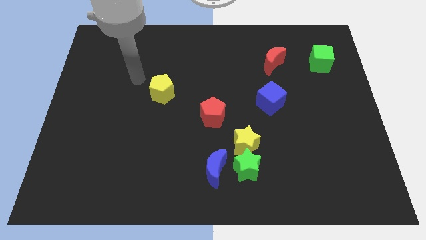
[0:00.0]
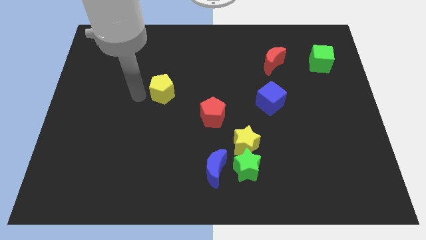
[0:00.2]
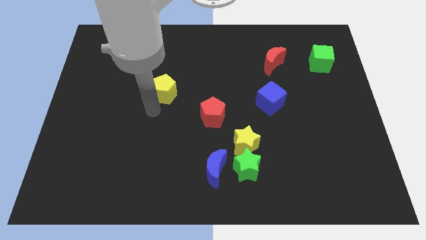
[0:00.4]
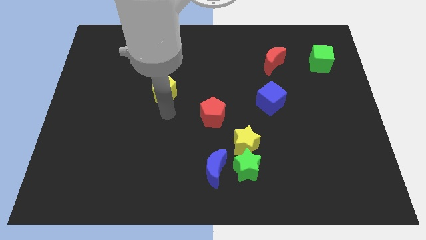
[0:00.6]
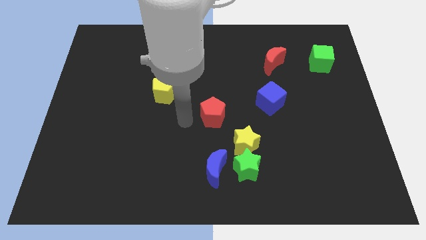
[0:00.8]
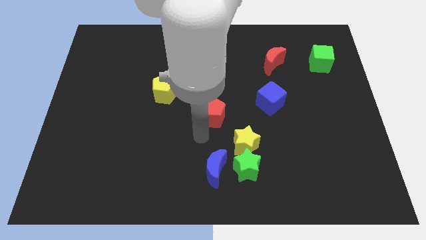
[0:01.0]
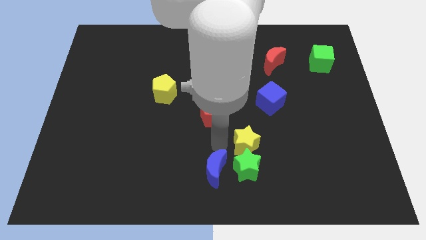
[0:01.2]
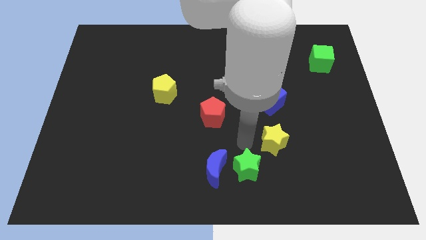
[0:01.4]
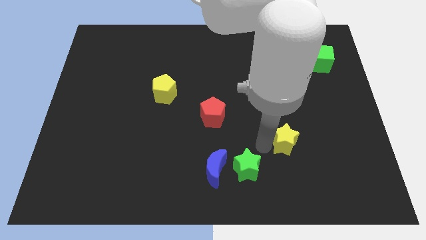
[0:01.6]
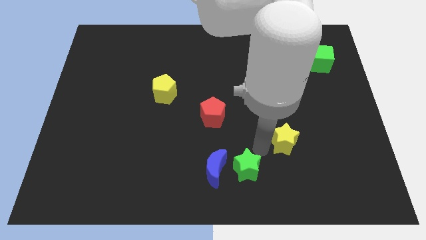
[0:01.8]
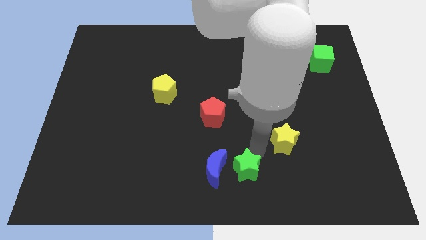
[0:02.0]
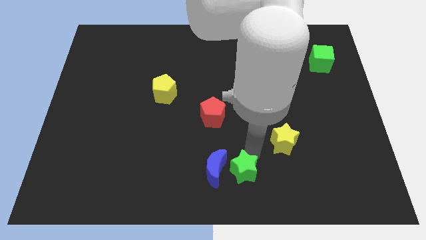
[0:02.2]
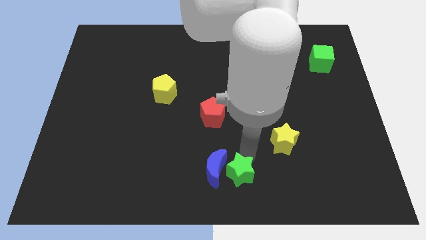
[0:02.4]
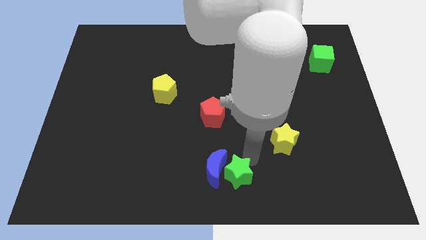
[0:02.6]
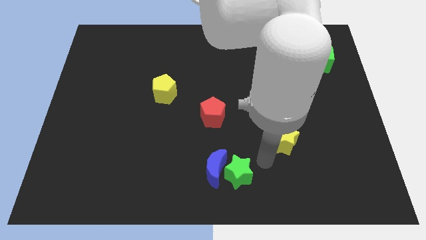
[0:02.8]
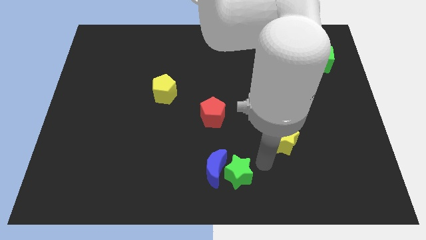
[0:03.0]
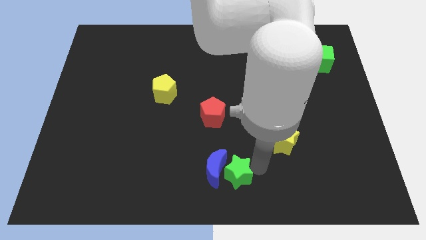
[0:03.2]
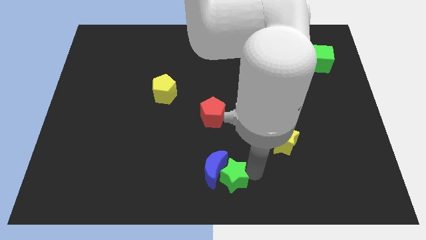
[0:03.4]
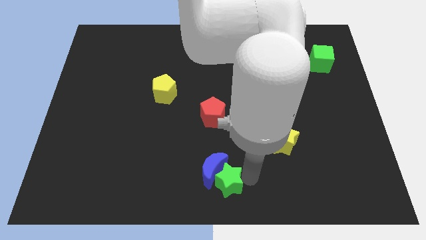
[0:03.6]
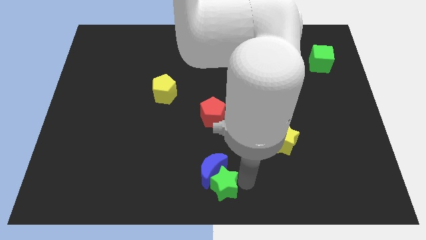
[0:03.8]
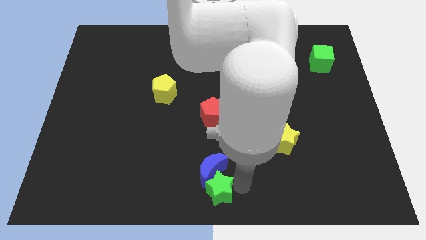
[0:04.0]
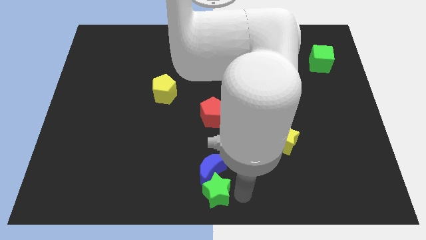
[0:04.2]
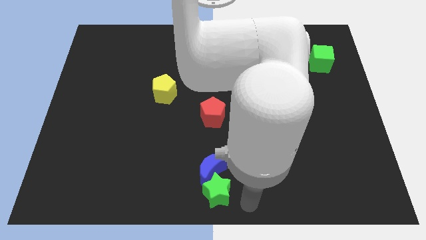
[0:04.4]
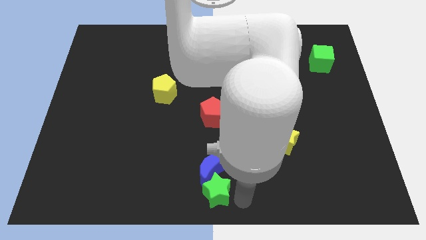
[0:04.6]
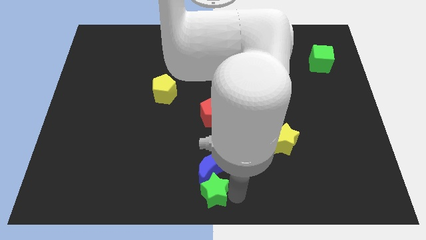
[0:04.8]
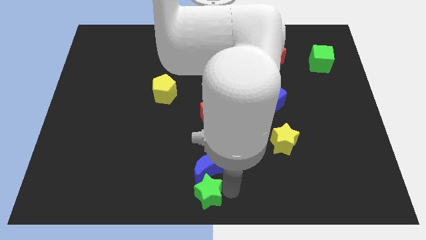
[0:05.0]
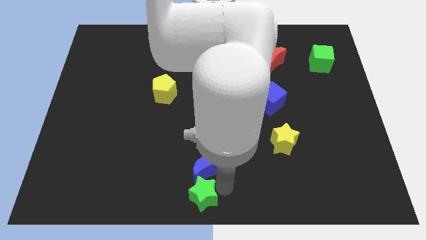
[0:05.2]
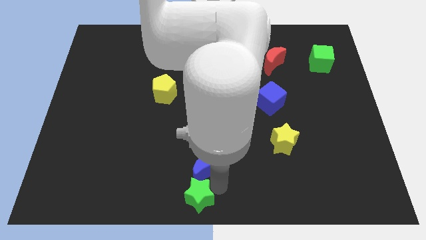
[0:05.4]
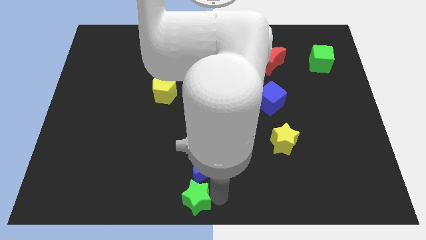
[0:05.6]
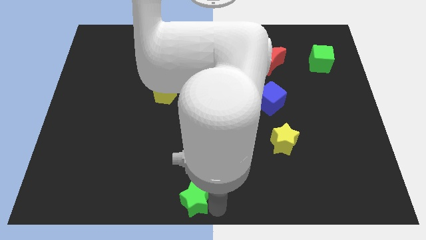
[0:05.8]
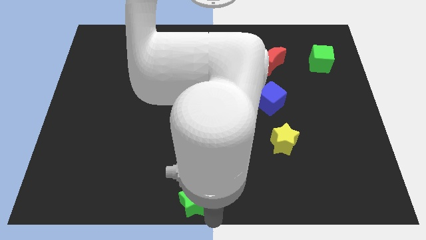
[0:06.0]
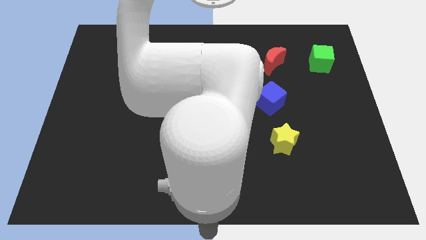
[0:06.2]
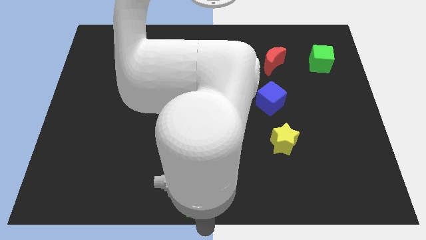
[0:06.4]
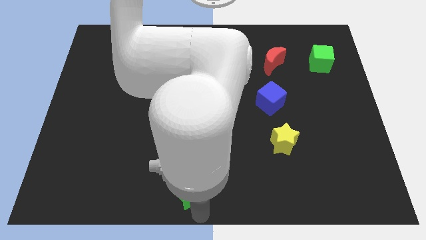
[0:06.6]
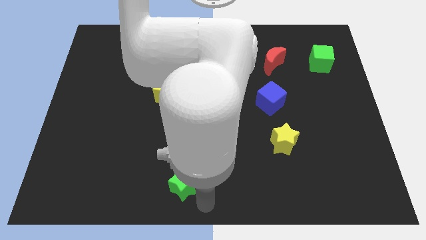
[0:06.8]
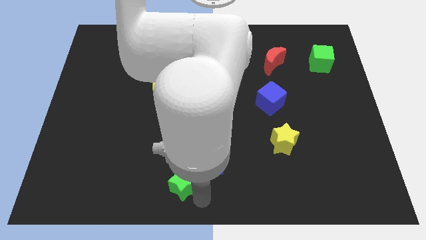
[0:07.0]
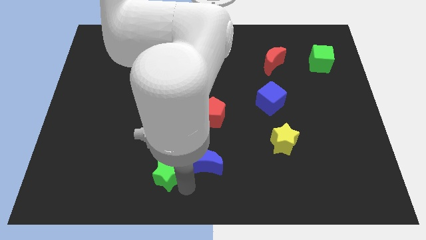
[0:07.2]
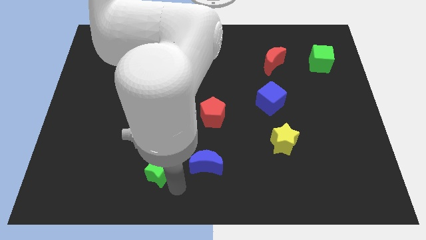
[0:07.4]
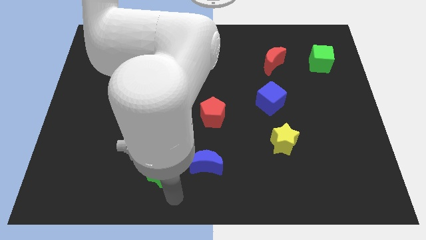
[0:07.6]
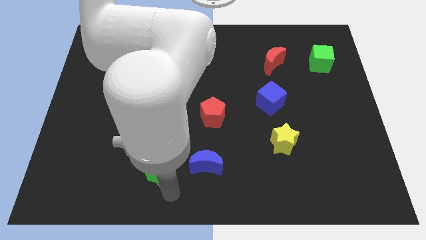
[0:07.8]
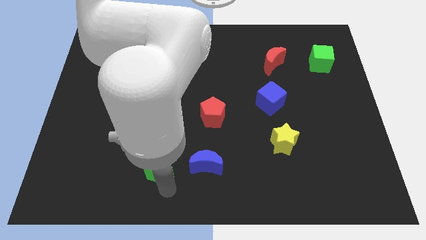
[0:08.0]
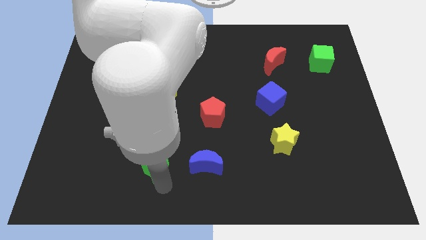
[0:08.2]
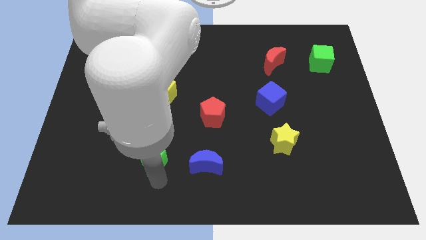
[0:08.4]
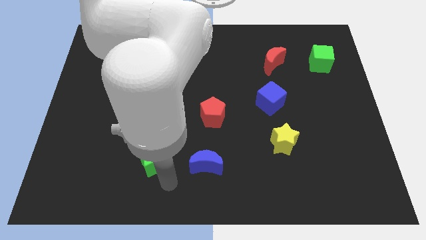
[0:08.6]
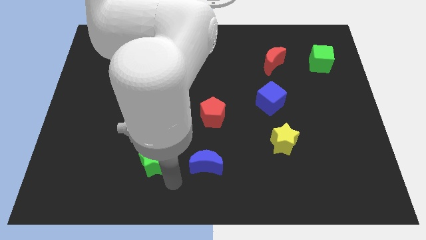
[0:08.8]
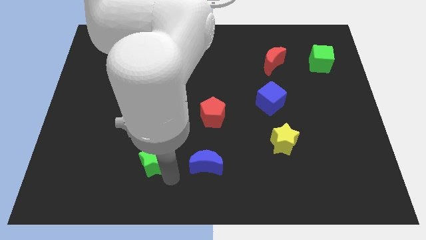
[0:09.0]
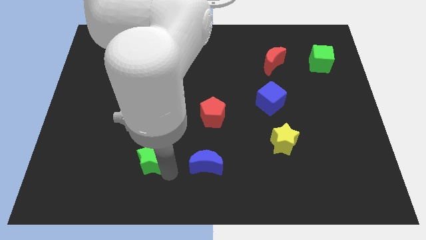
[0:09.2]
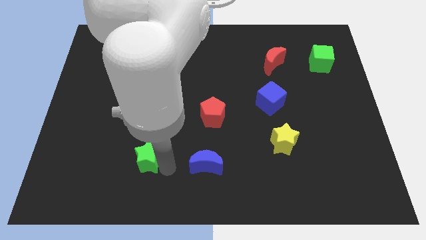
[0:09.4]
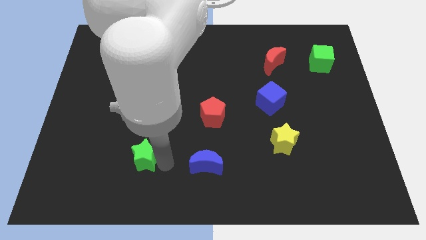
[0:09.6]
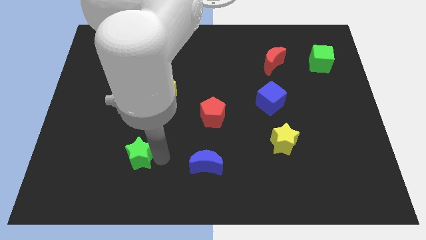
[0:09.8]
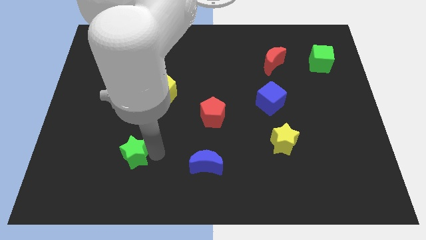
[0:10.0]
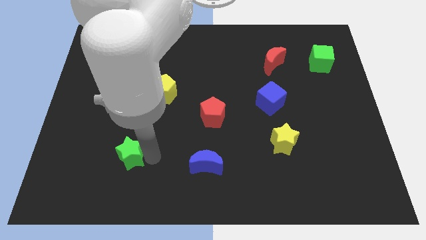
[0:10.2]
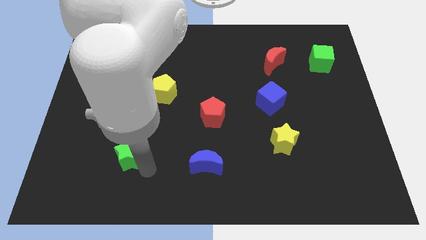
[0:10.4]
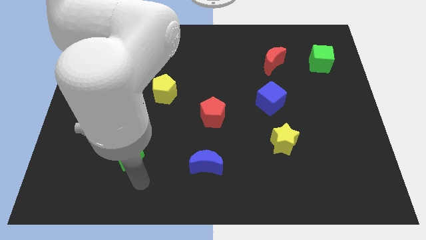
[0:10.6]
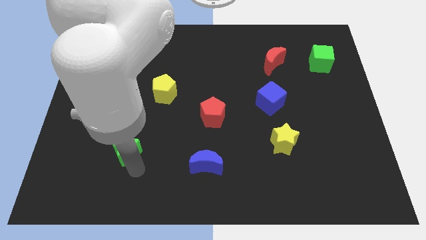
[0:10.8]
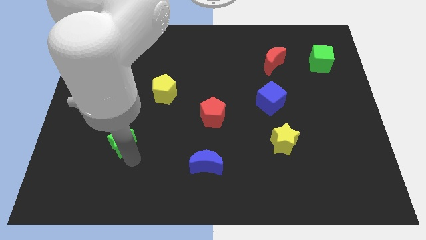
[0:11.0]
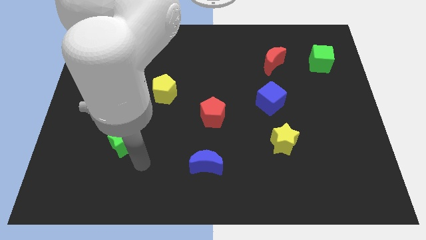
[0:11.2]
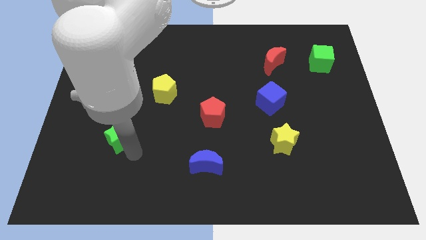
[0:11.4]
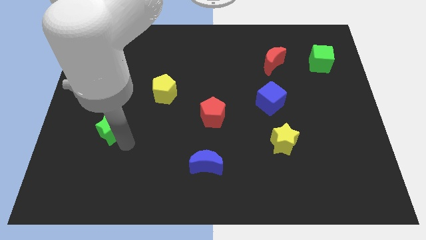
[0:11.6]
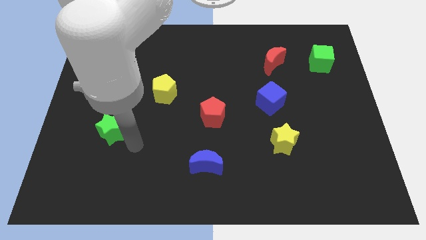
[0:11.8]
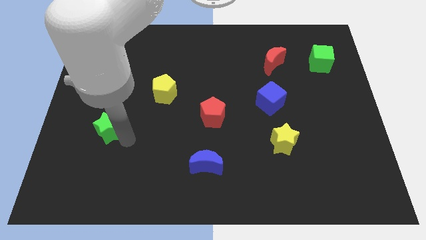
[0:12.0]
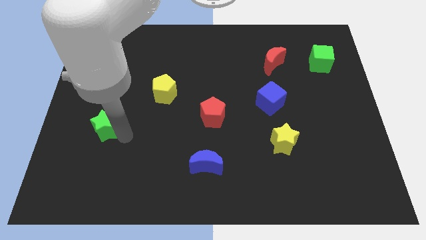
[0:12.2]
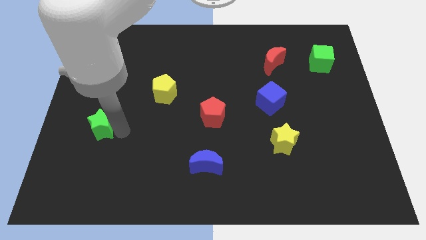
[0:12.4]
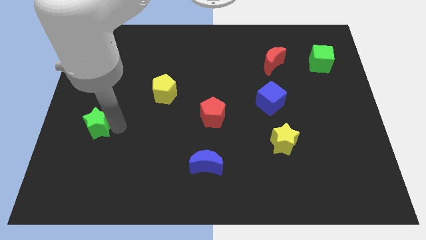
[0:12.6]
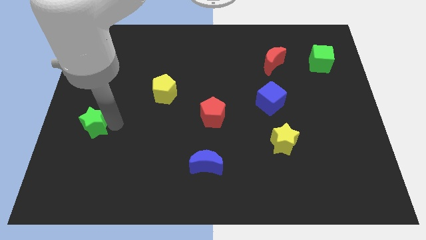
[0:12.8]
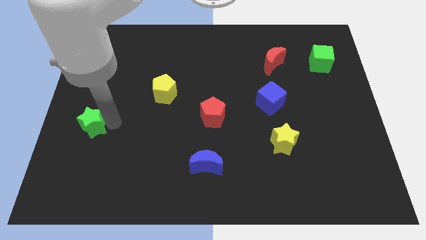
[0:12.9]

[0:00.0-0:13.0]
put the green star to the left side of the board
